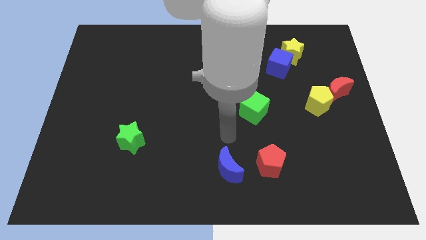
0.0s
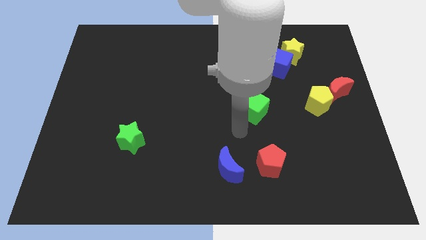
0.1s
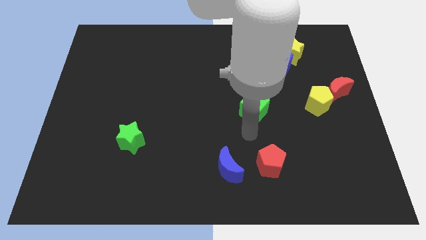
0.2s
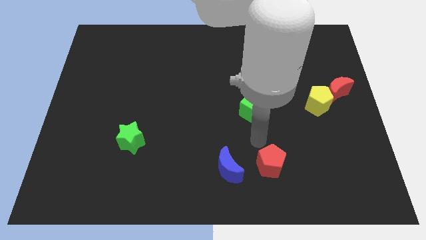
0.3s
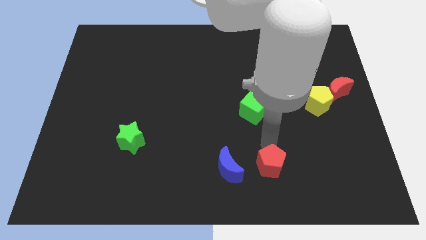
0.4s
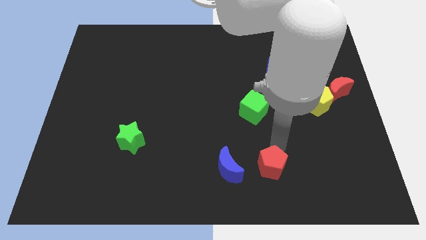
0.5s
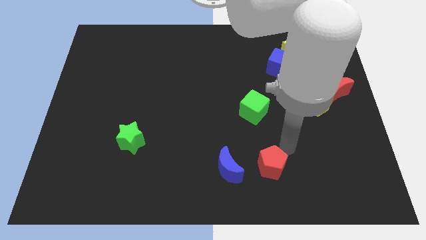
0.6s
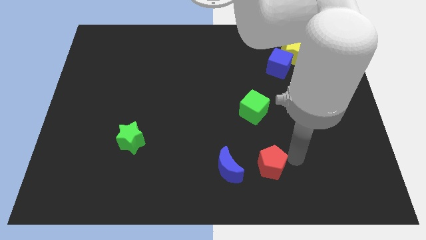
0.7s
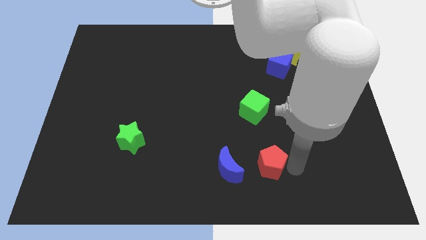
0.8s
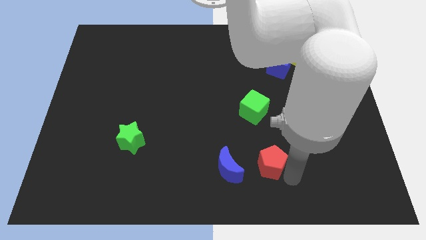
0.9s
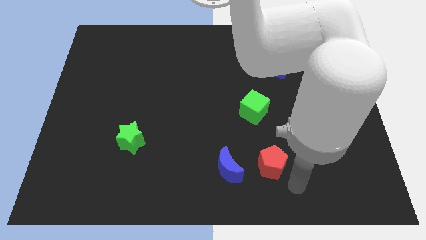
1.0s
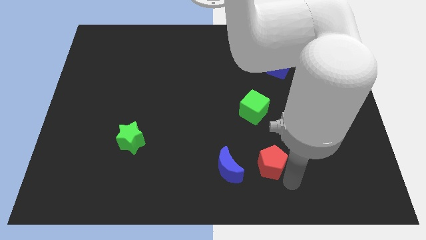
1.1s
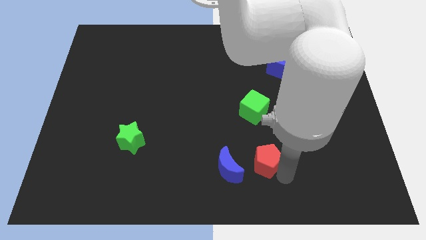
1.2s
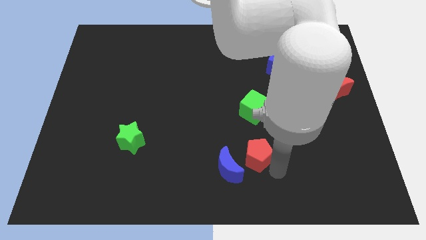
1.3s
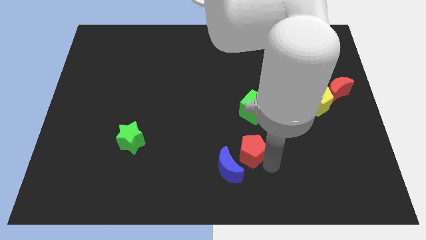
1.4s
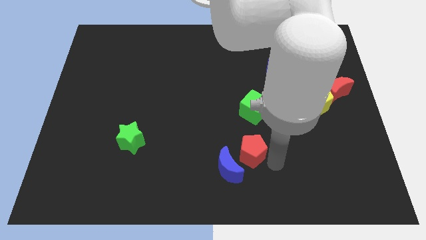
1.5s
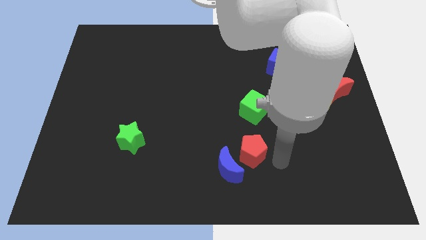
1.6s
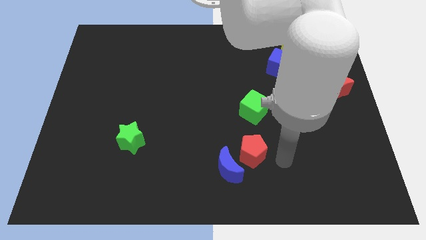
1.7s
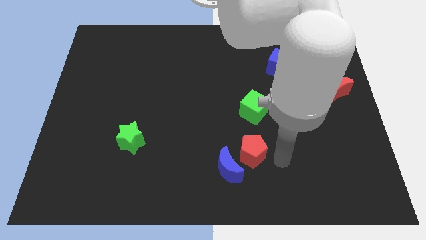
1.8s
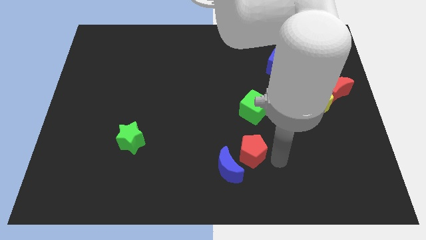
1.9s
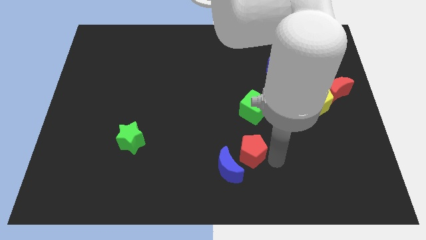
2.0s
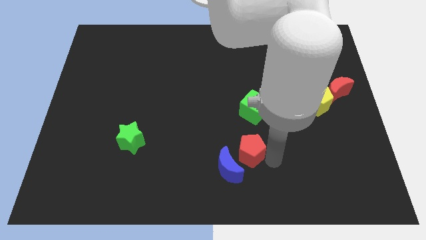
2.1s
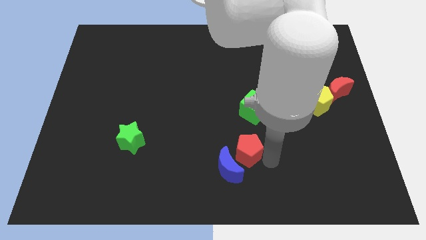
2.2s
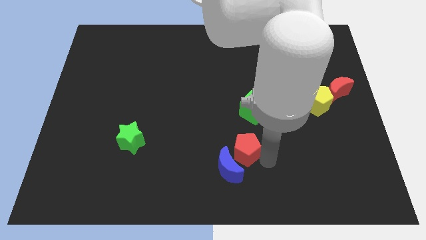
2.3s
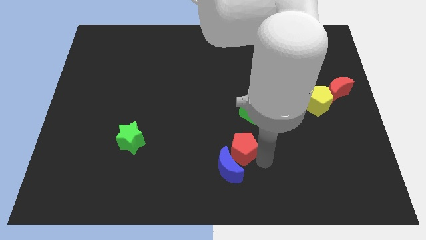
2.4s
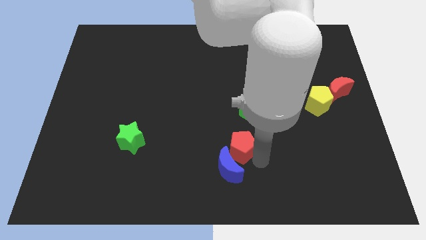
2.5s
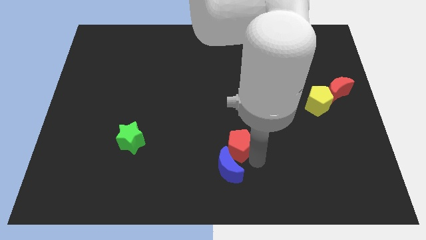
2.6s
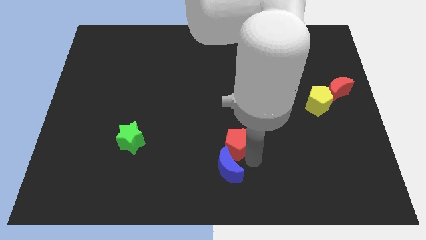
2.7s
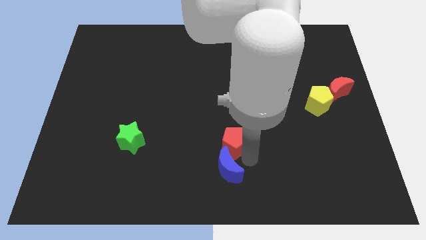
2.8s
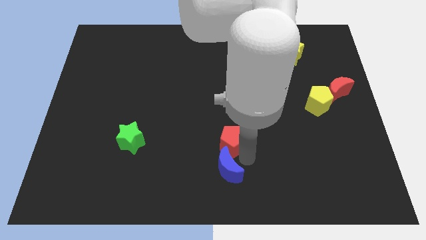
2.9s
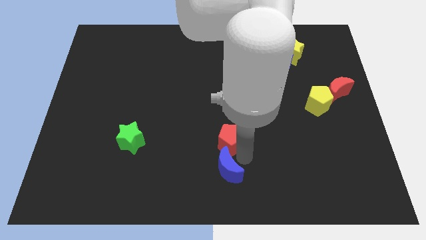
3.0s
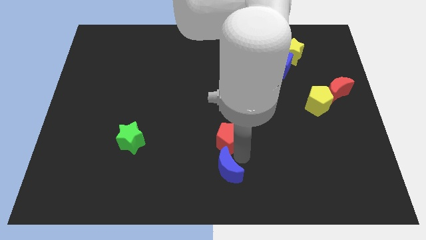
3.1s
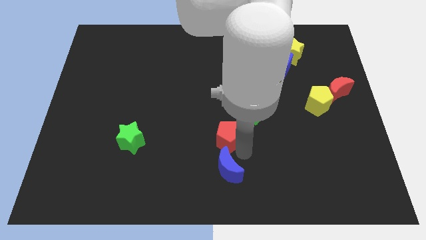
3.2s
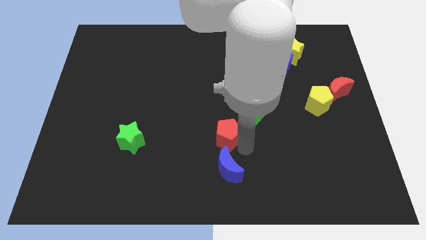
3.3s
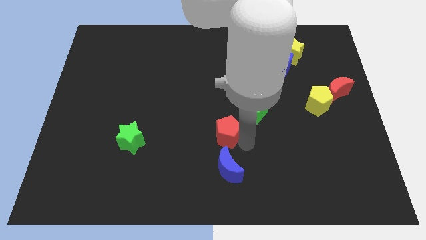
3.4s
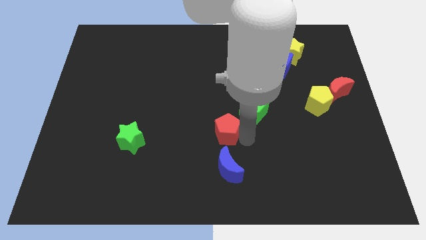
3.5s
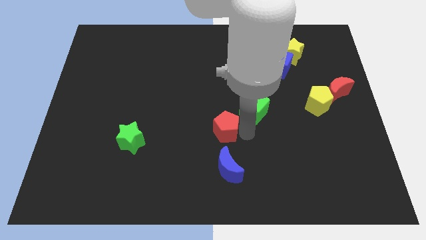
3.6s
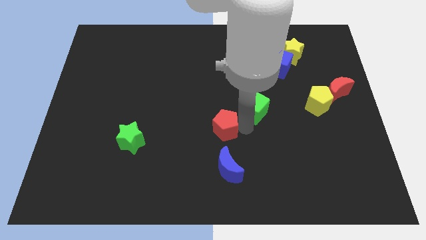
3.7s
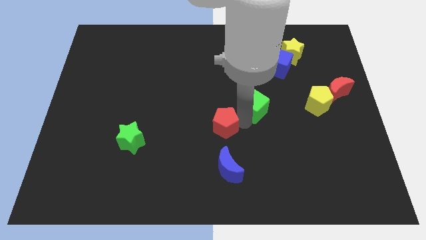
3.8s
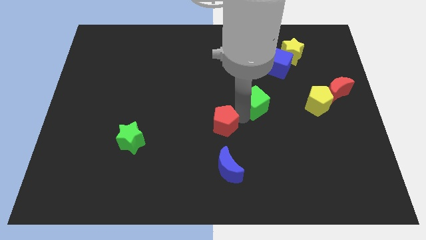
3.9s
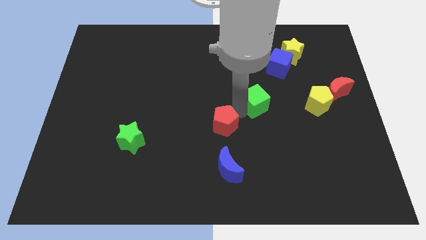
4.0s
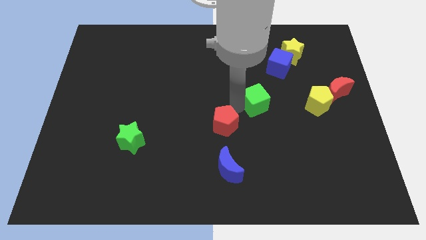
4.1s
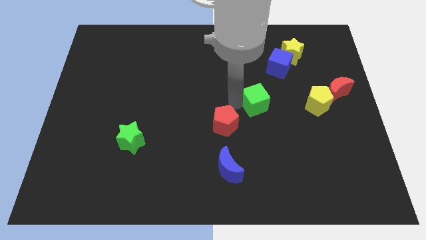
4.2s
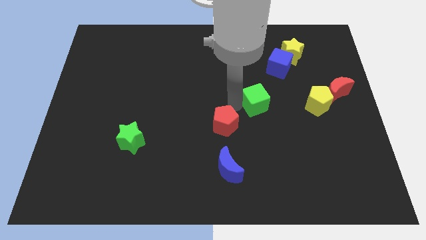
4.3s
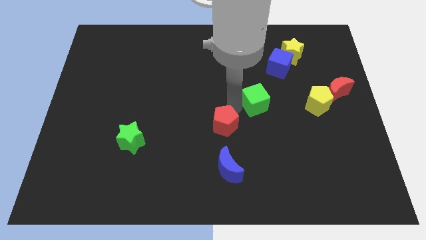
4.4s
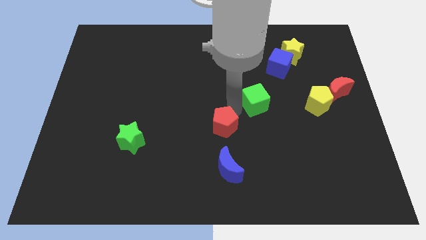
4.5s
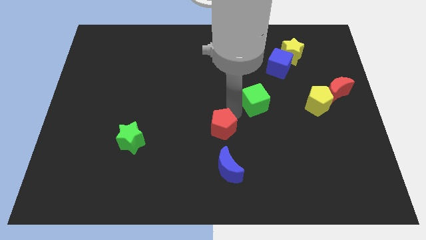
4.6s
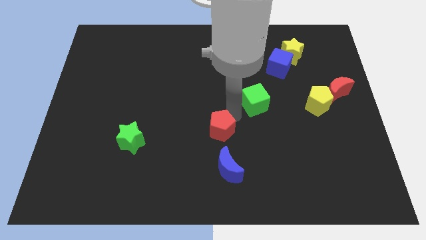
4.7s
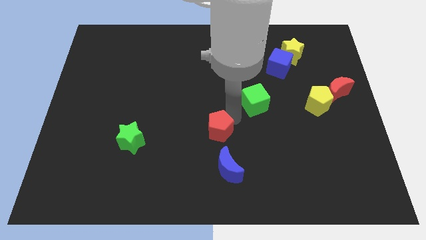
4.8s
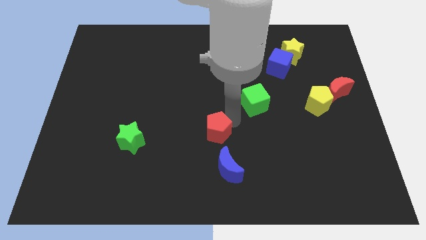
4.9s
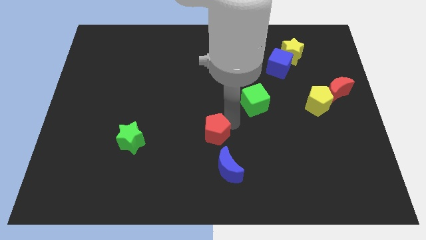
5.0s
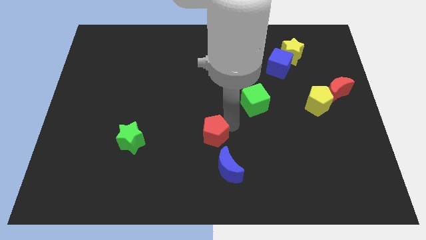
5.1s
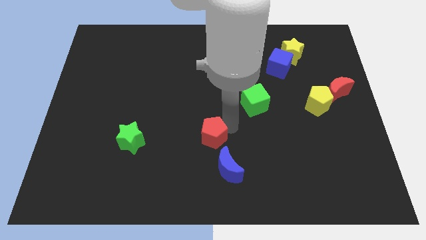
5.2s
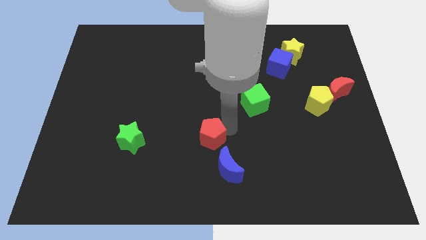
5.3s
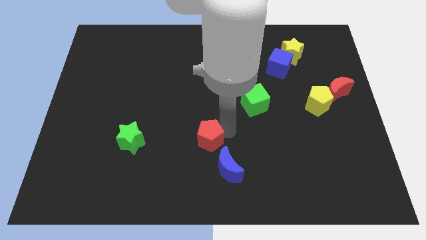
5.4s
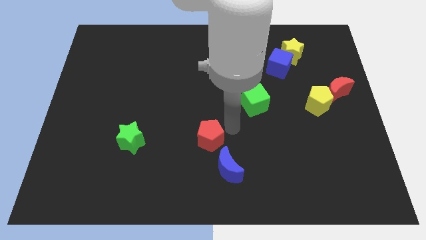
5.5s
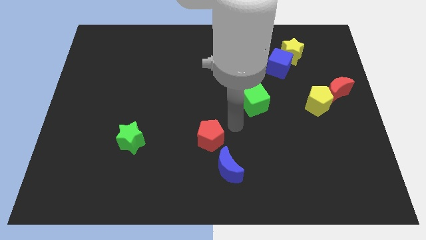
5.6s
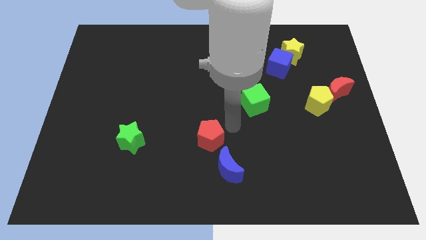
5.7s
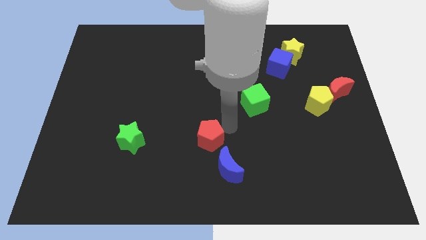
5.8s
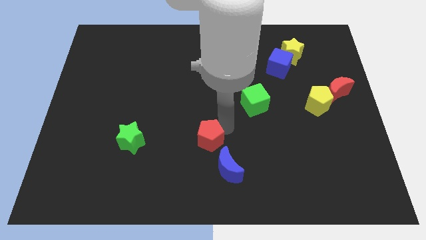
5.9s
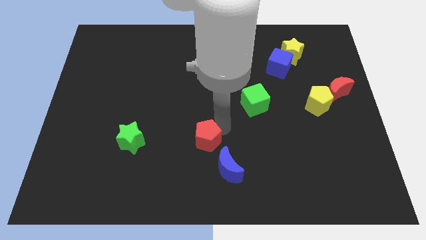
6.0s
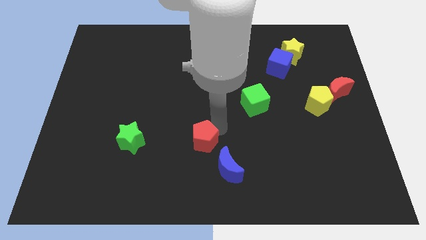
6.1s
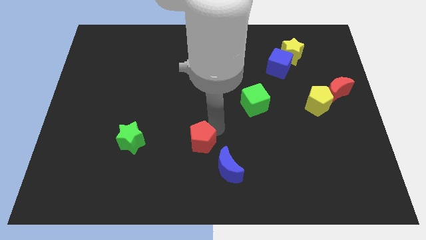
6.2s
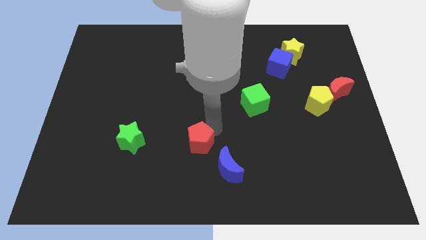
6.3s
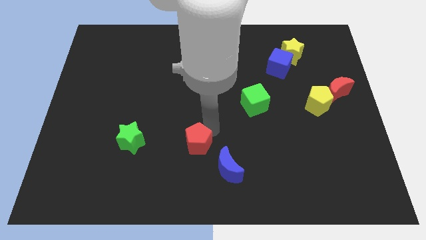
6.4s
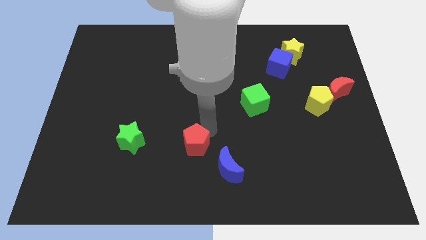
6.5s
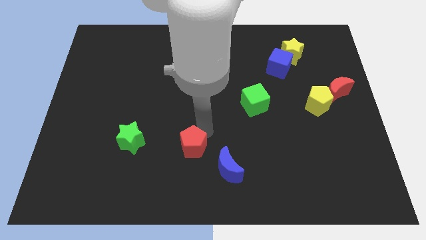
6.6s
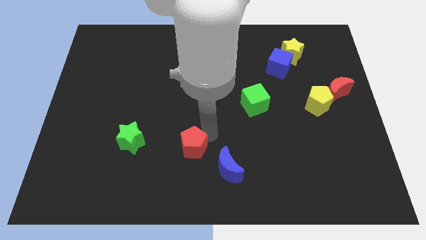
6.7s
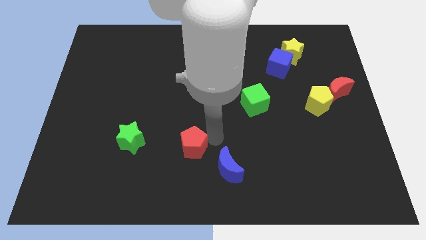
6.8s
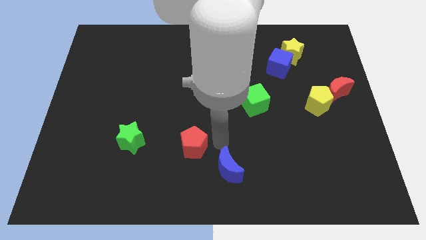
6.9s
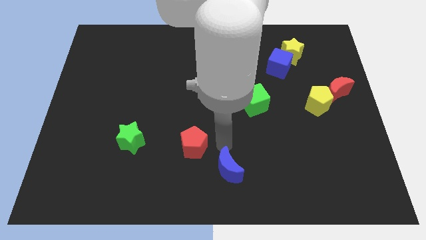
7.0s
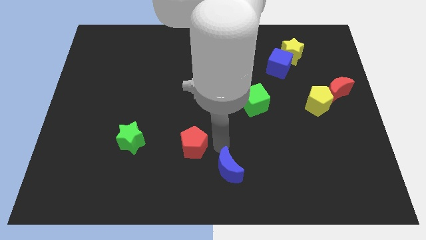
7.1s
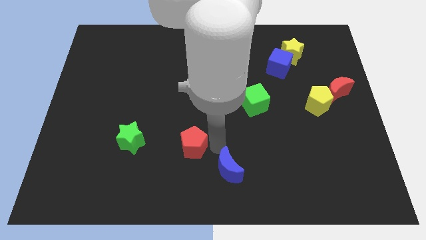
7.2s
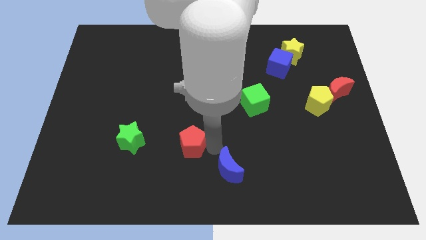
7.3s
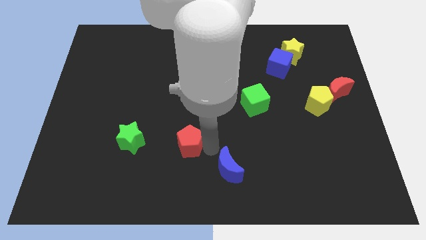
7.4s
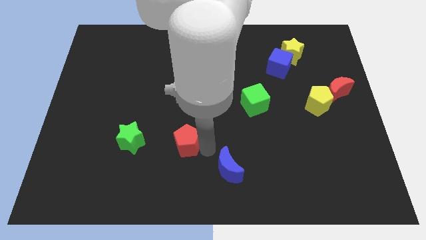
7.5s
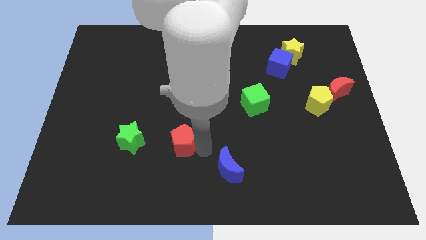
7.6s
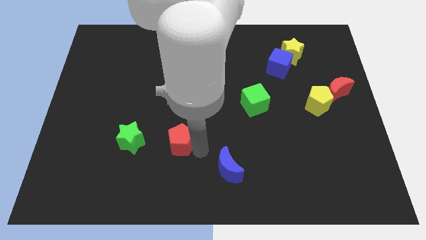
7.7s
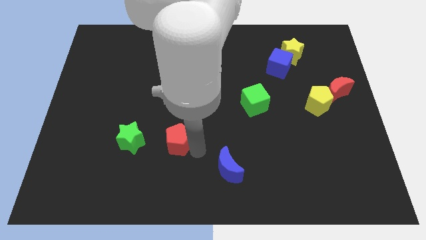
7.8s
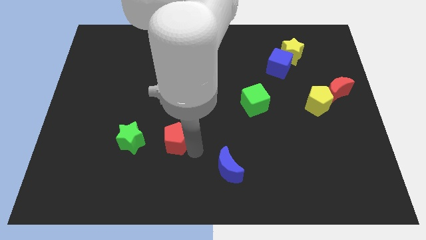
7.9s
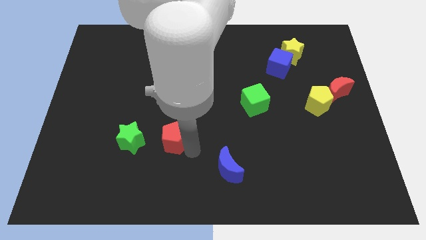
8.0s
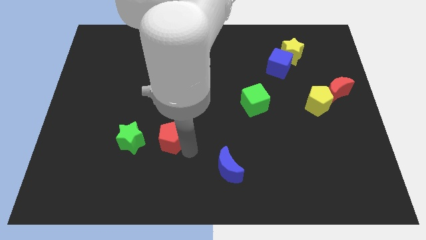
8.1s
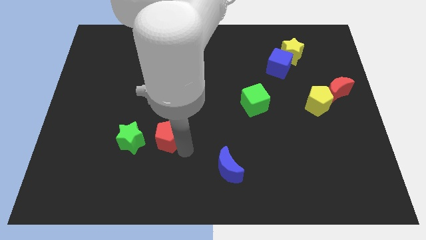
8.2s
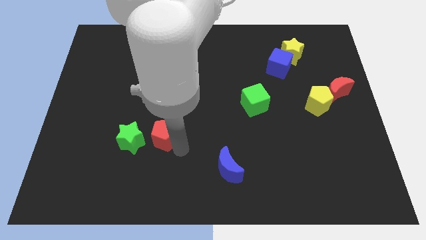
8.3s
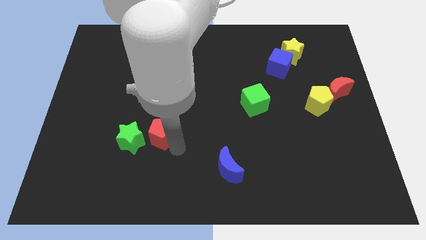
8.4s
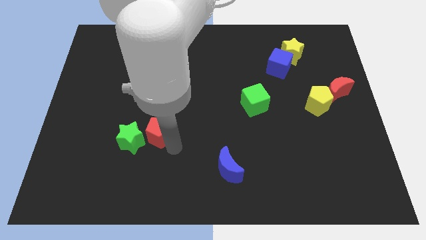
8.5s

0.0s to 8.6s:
put the red pentagon close to the green star
